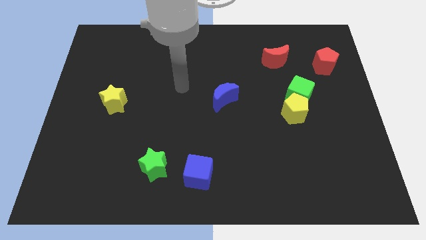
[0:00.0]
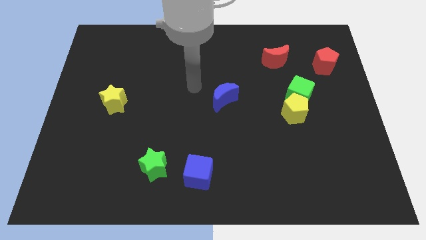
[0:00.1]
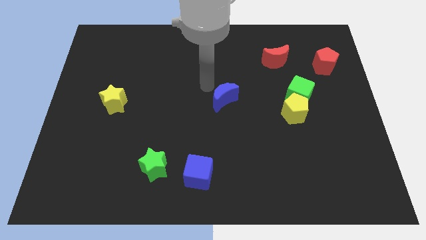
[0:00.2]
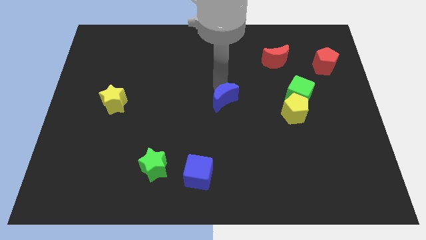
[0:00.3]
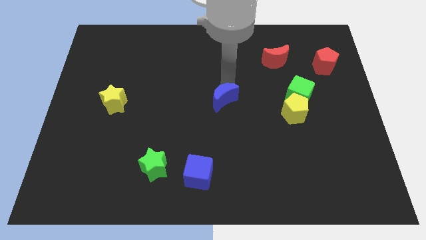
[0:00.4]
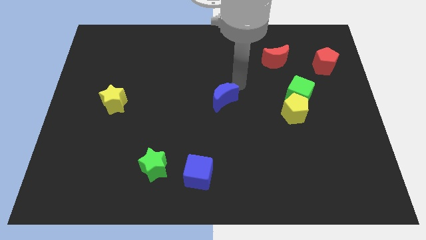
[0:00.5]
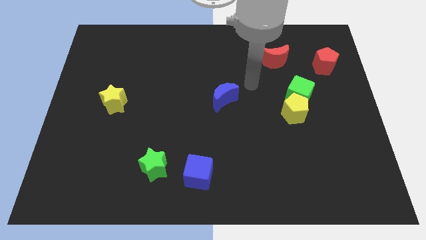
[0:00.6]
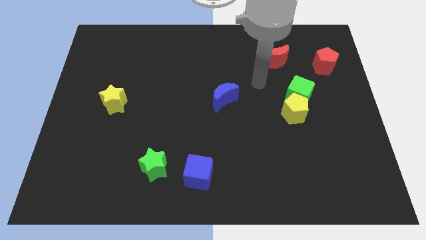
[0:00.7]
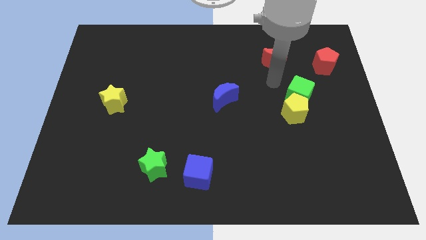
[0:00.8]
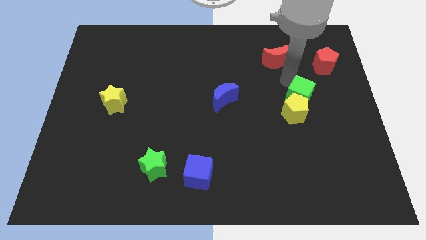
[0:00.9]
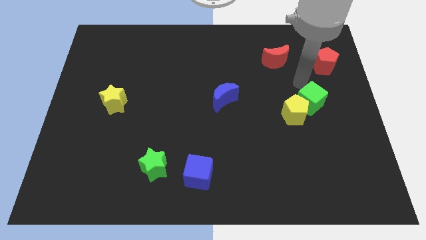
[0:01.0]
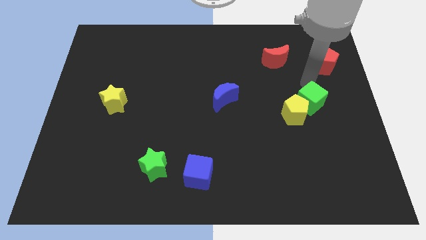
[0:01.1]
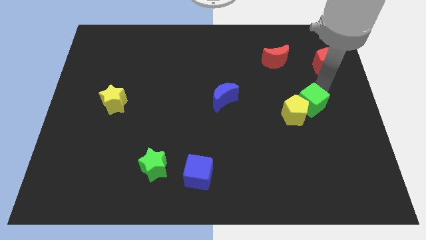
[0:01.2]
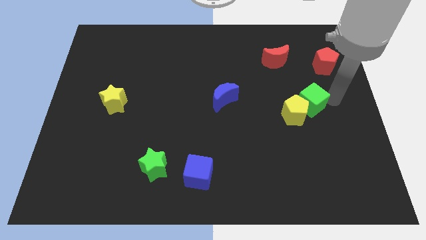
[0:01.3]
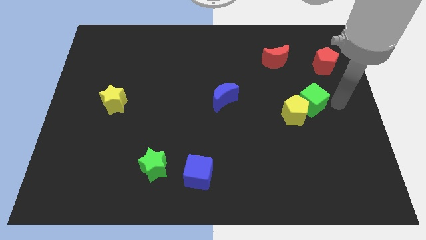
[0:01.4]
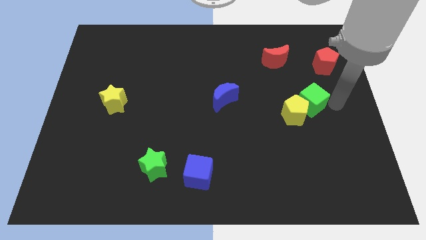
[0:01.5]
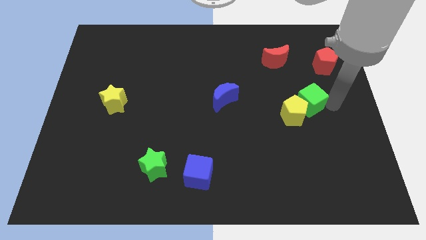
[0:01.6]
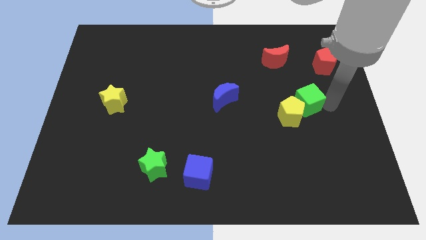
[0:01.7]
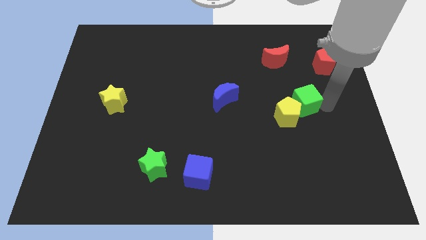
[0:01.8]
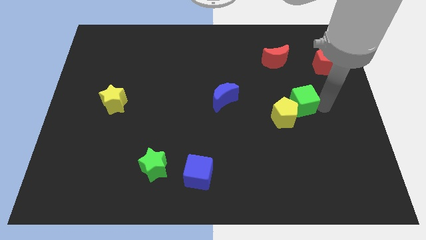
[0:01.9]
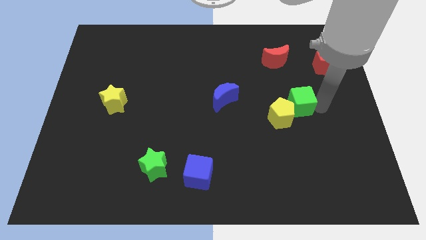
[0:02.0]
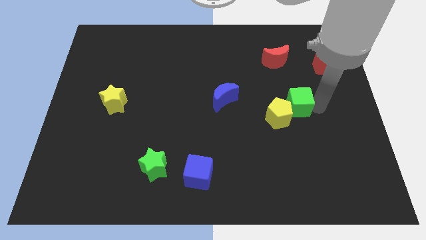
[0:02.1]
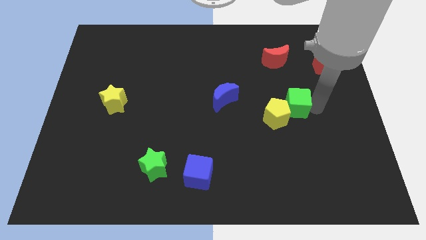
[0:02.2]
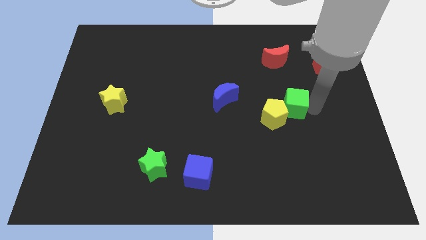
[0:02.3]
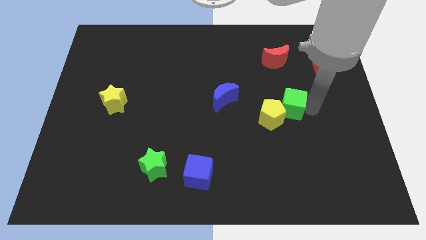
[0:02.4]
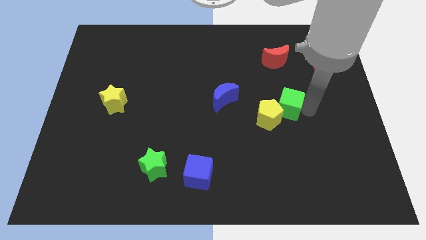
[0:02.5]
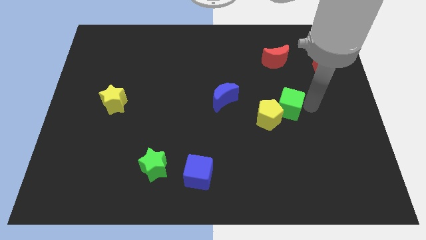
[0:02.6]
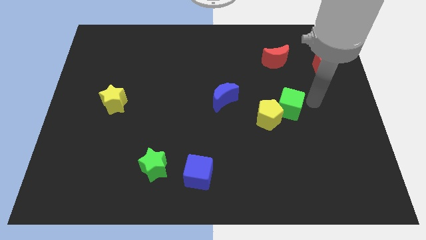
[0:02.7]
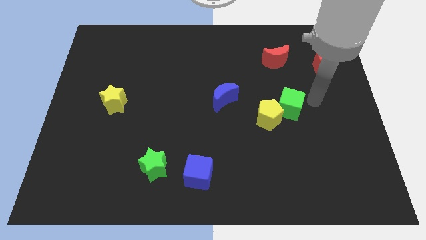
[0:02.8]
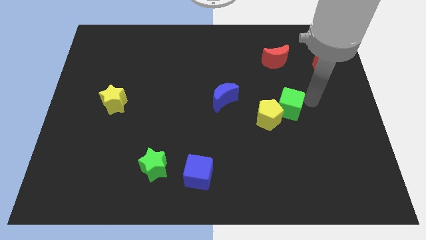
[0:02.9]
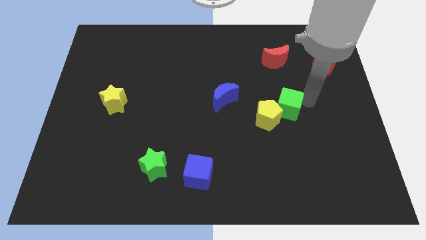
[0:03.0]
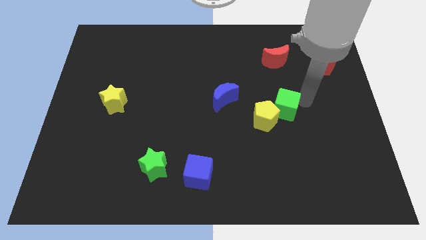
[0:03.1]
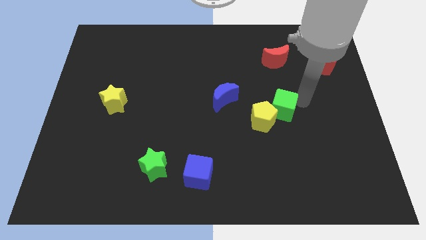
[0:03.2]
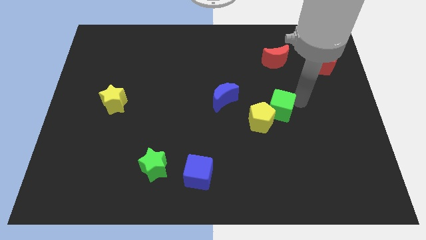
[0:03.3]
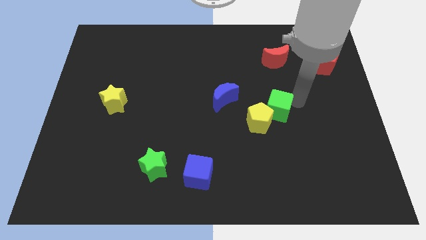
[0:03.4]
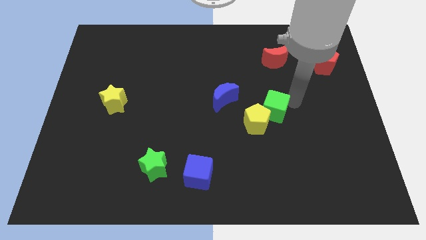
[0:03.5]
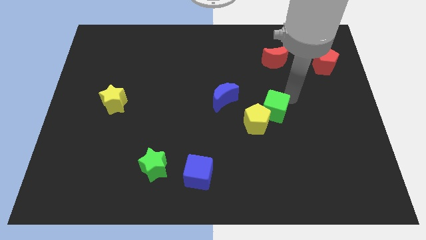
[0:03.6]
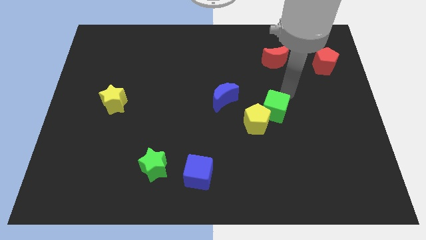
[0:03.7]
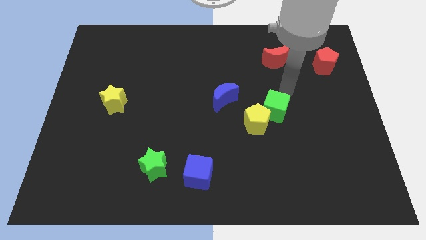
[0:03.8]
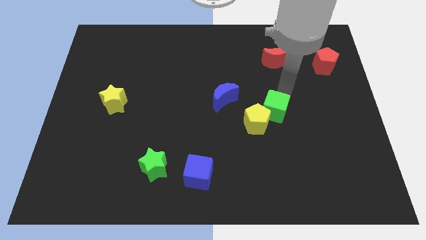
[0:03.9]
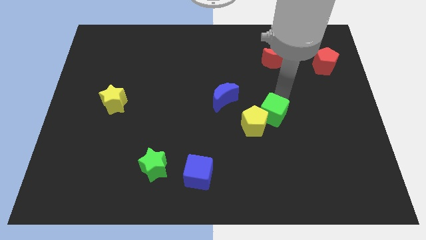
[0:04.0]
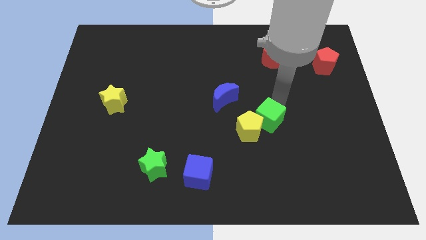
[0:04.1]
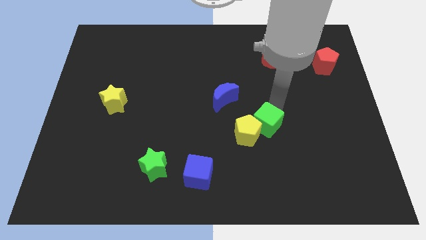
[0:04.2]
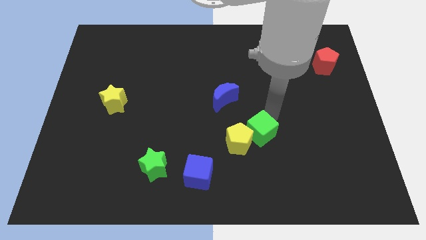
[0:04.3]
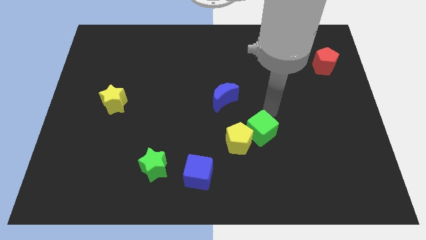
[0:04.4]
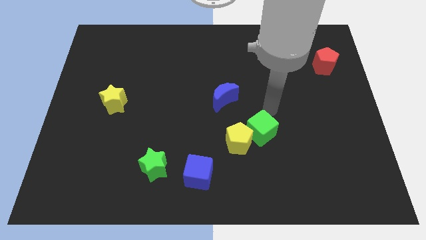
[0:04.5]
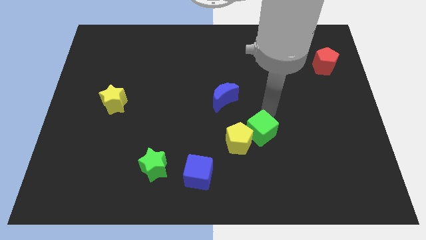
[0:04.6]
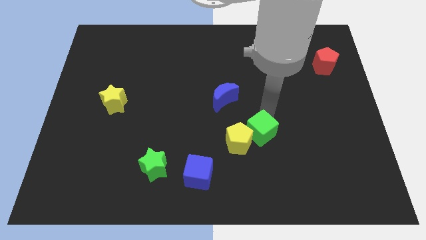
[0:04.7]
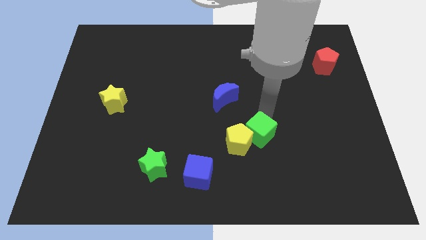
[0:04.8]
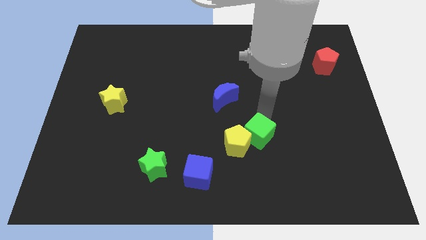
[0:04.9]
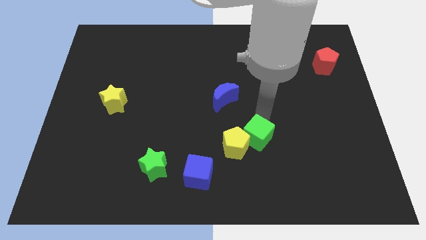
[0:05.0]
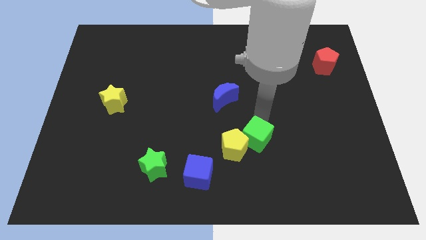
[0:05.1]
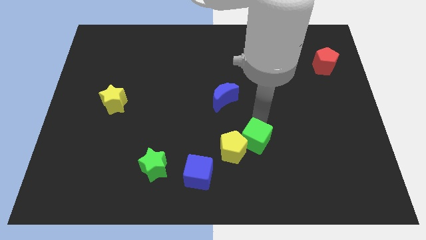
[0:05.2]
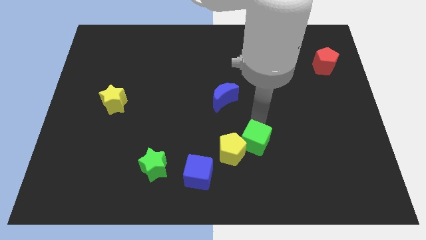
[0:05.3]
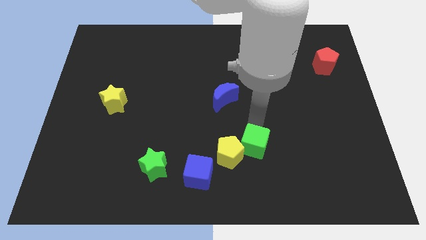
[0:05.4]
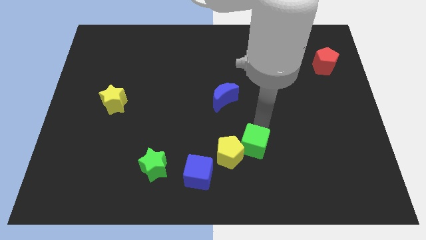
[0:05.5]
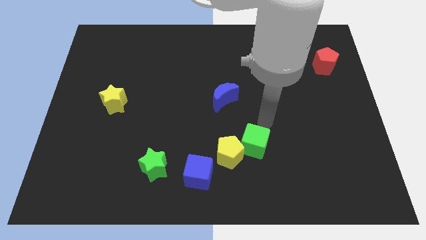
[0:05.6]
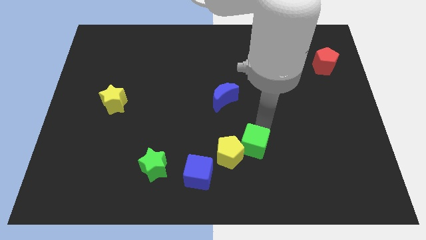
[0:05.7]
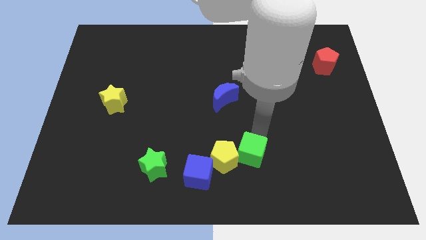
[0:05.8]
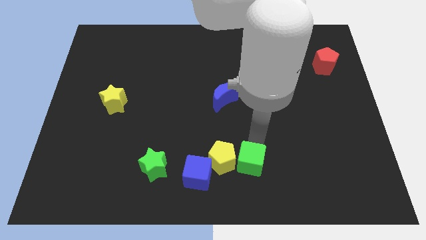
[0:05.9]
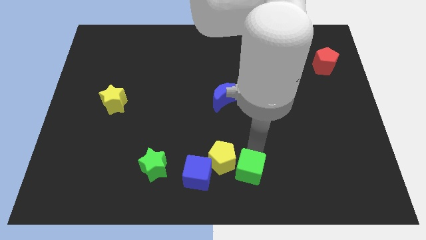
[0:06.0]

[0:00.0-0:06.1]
push the green cube to the bottom side

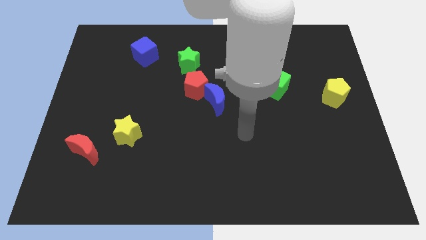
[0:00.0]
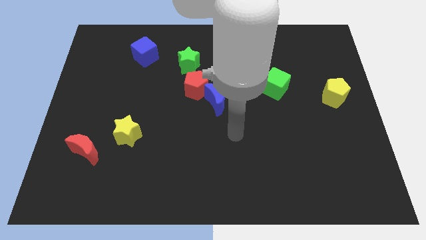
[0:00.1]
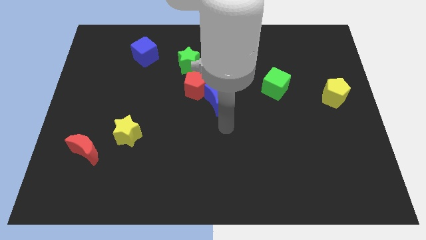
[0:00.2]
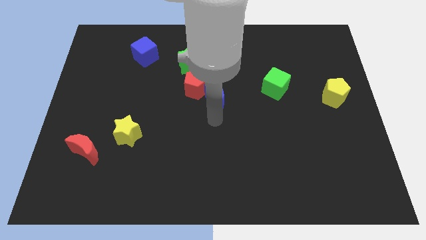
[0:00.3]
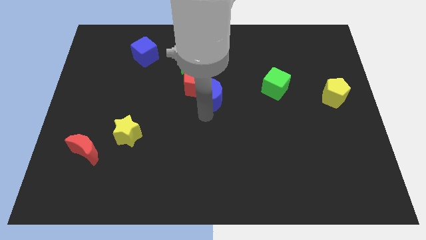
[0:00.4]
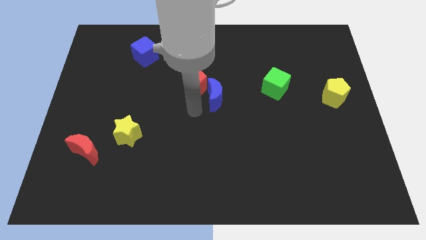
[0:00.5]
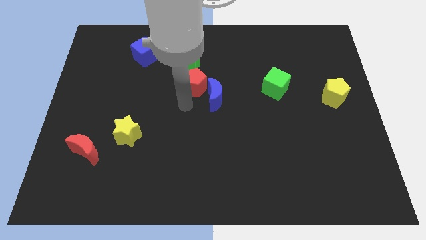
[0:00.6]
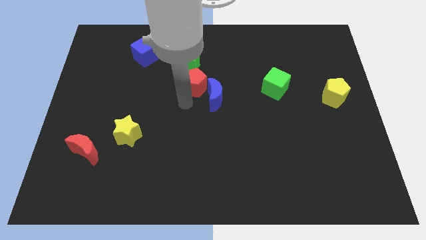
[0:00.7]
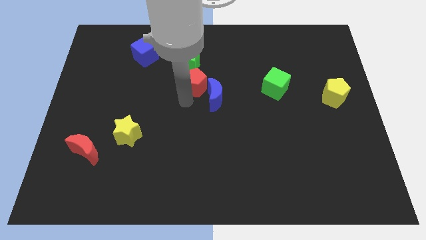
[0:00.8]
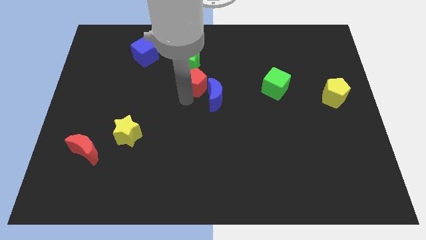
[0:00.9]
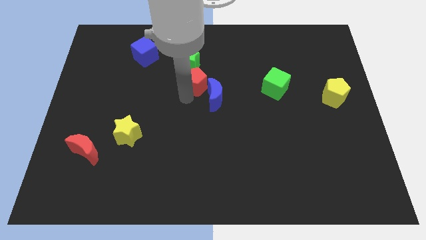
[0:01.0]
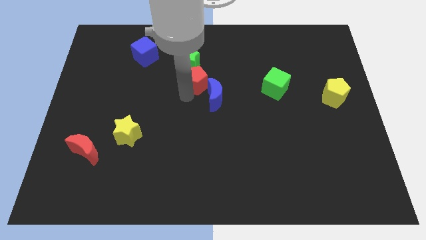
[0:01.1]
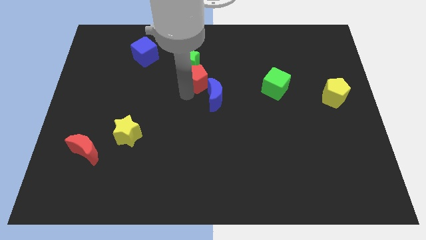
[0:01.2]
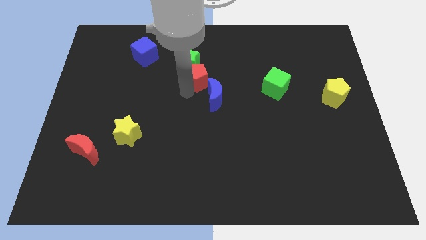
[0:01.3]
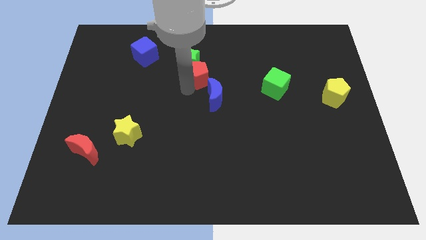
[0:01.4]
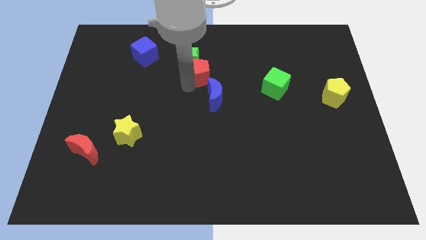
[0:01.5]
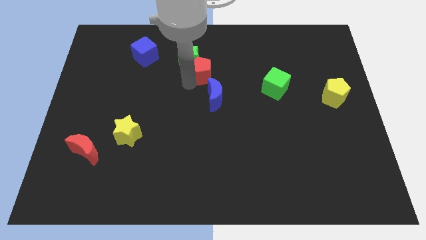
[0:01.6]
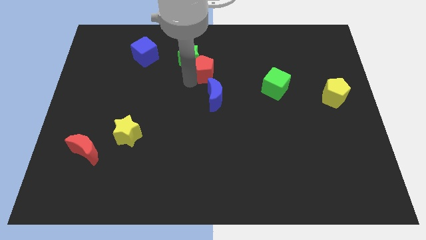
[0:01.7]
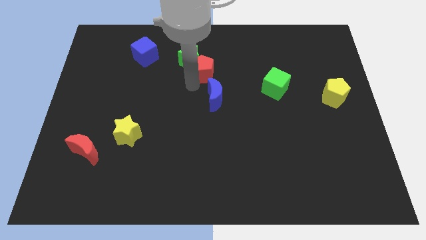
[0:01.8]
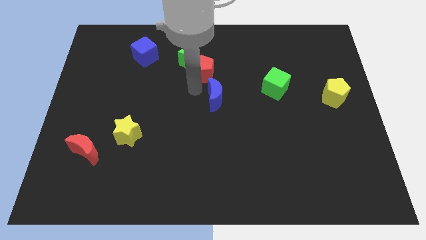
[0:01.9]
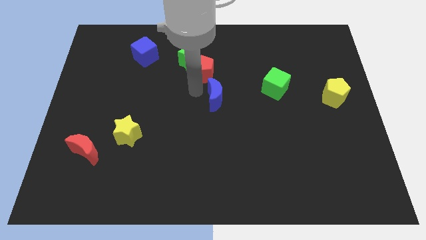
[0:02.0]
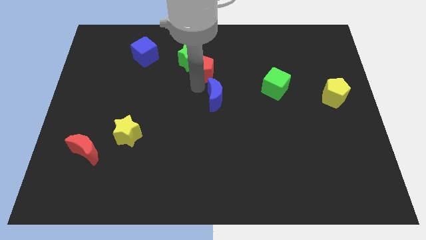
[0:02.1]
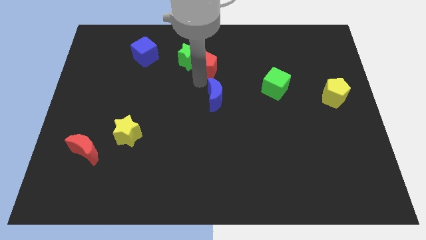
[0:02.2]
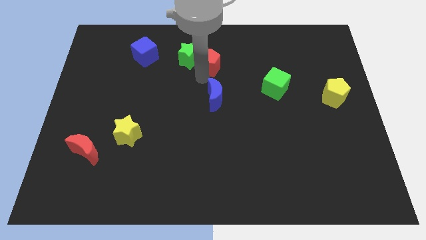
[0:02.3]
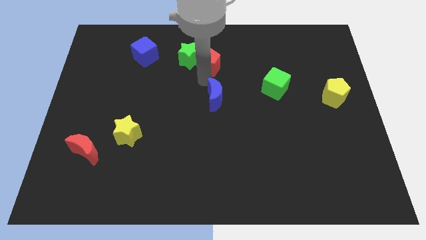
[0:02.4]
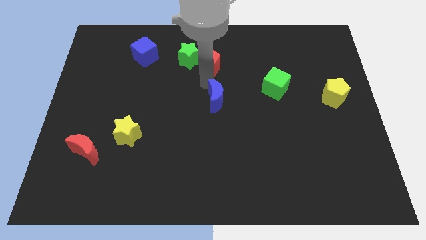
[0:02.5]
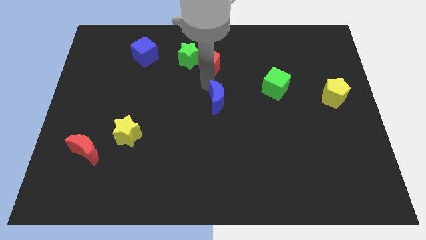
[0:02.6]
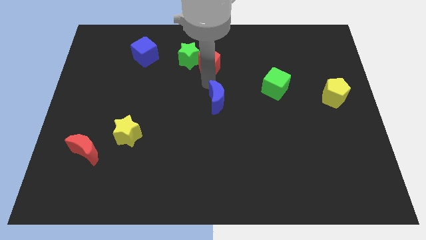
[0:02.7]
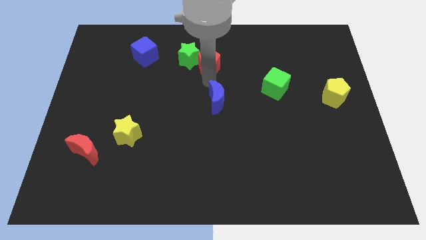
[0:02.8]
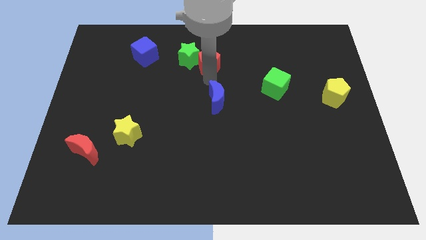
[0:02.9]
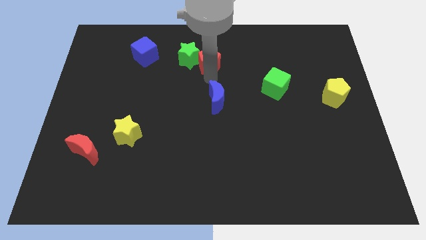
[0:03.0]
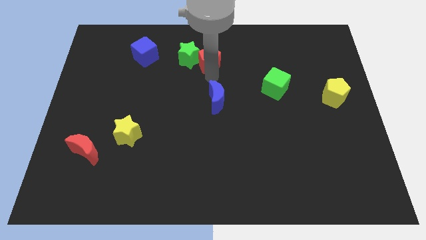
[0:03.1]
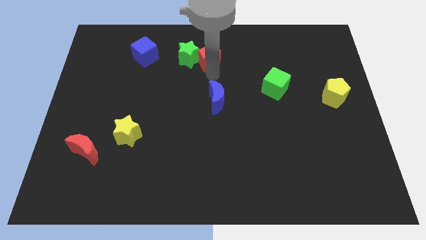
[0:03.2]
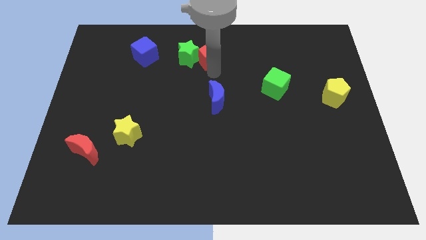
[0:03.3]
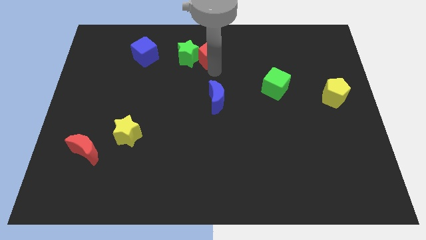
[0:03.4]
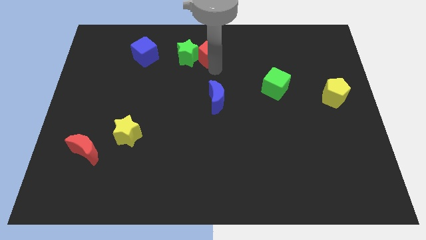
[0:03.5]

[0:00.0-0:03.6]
push the red pentagon to the top side
